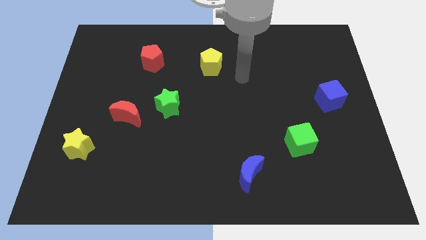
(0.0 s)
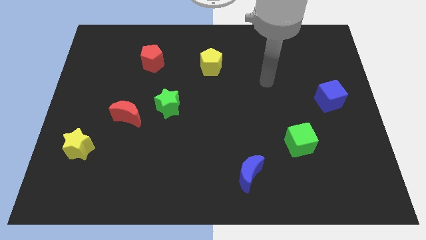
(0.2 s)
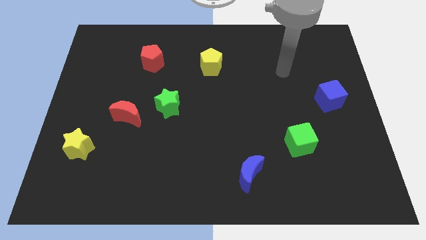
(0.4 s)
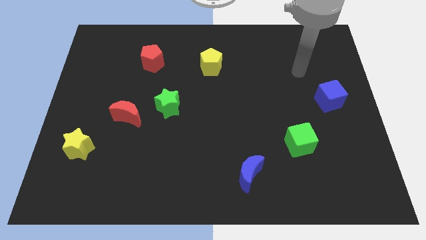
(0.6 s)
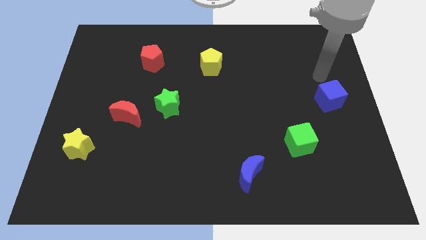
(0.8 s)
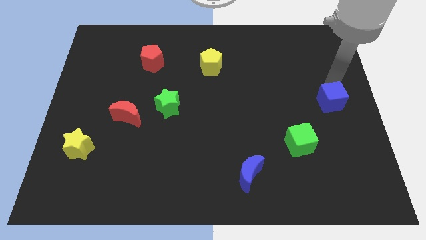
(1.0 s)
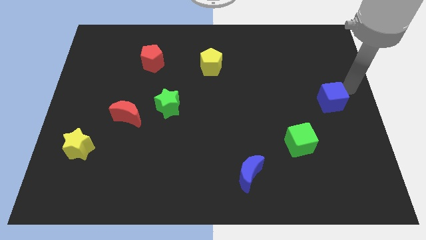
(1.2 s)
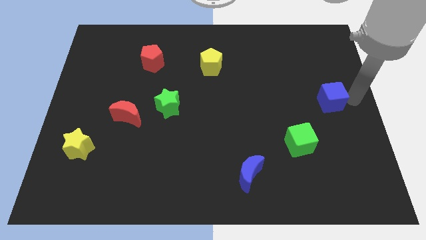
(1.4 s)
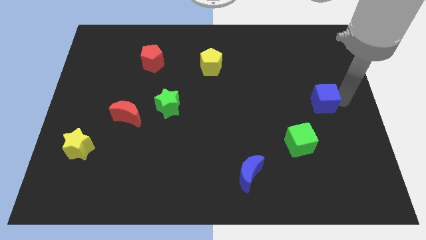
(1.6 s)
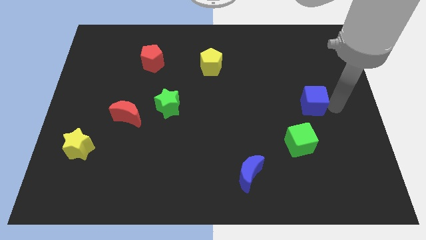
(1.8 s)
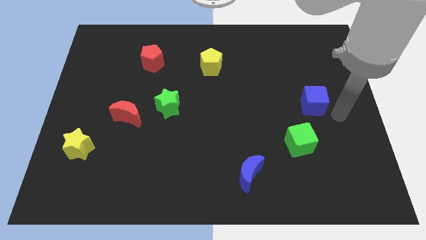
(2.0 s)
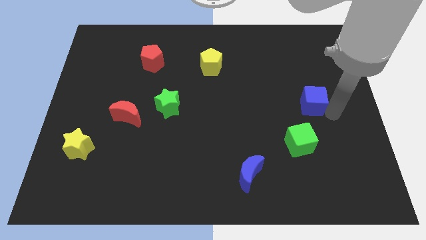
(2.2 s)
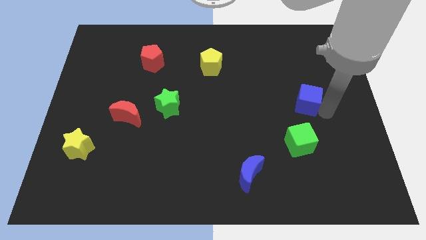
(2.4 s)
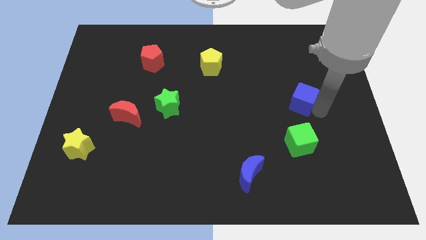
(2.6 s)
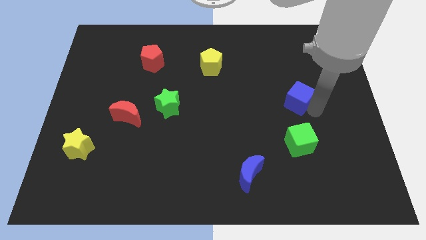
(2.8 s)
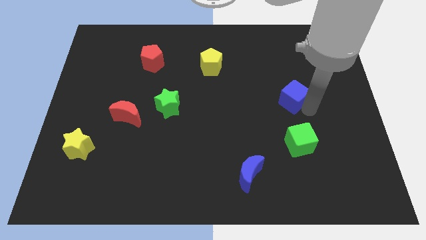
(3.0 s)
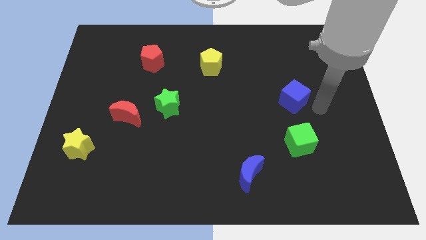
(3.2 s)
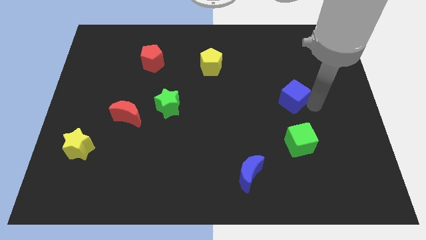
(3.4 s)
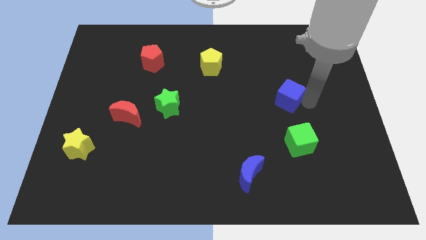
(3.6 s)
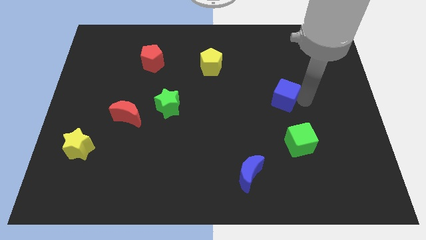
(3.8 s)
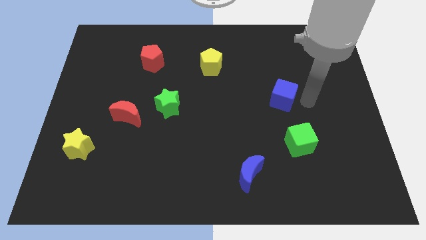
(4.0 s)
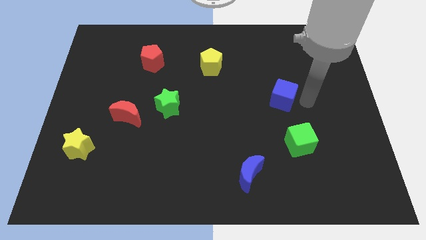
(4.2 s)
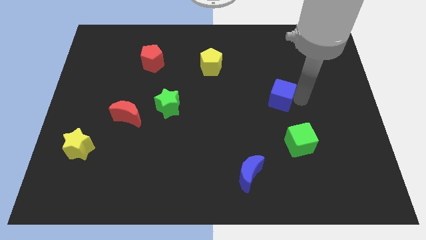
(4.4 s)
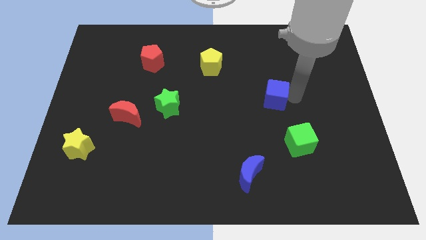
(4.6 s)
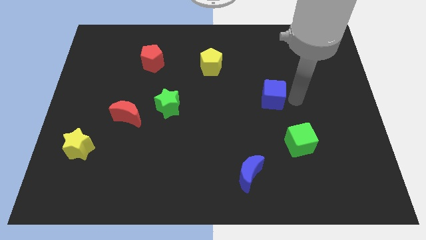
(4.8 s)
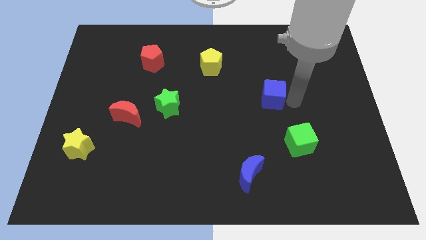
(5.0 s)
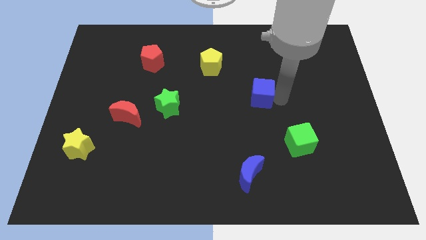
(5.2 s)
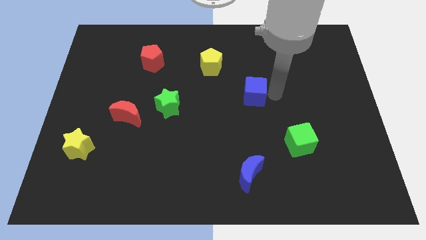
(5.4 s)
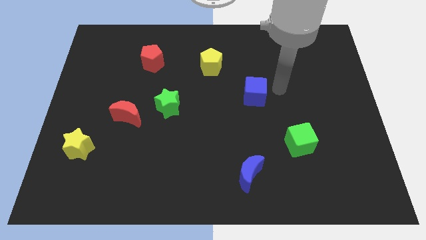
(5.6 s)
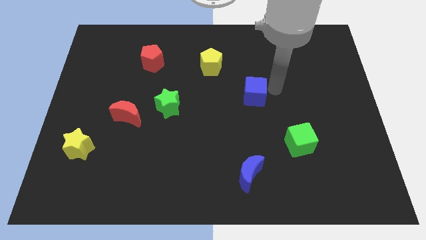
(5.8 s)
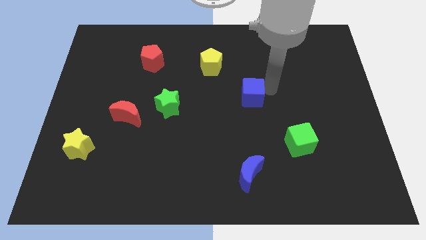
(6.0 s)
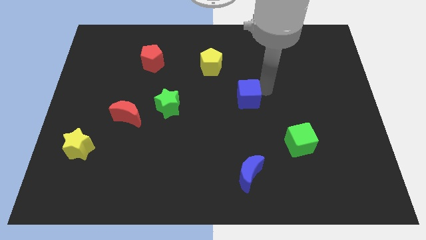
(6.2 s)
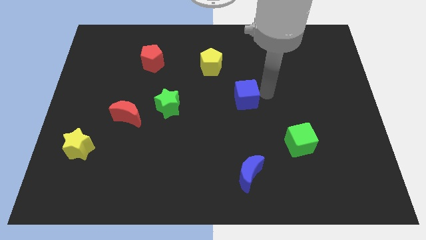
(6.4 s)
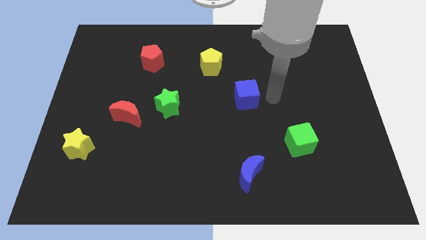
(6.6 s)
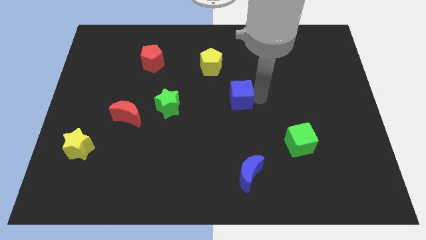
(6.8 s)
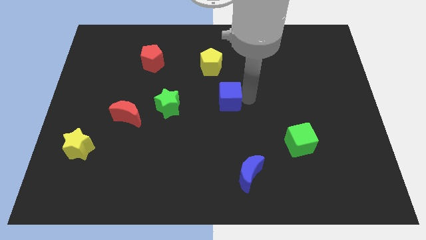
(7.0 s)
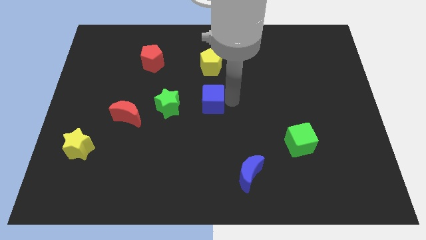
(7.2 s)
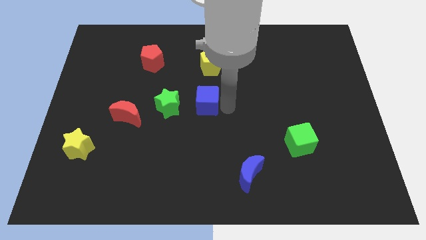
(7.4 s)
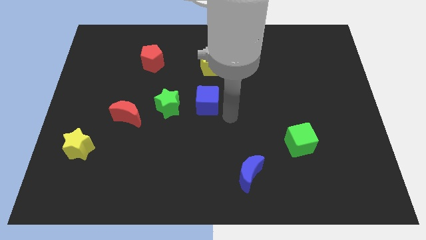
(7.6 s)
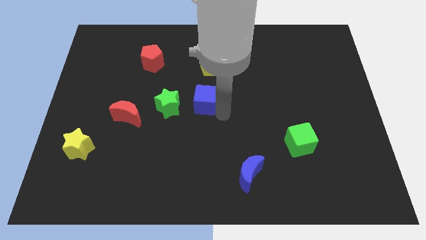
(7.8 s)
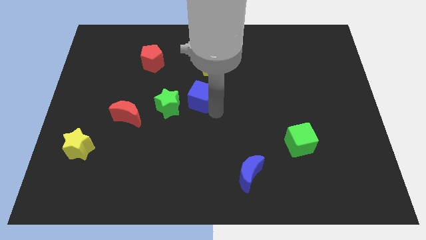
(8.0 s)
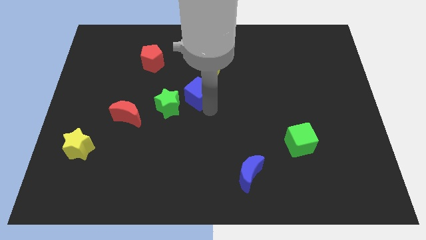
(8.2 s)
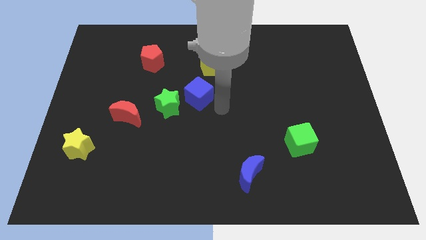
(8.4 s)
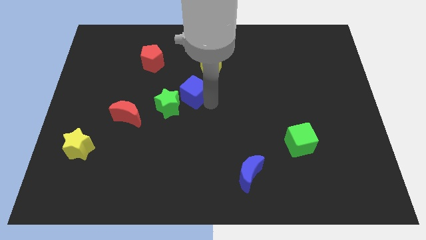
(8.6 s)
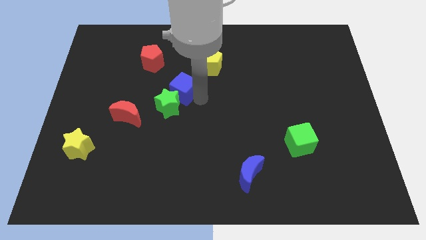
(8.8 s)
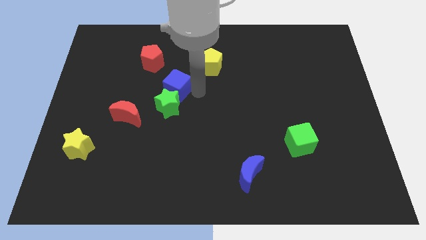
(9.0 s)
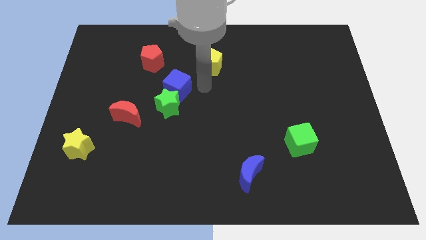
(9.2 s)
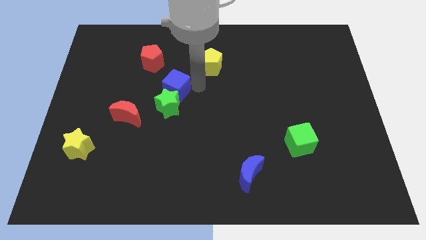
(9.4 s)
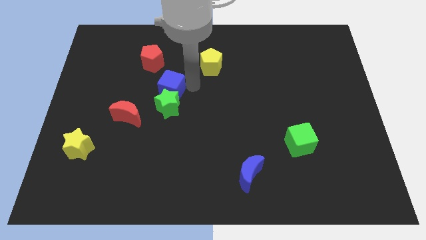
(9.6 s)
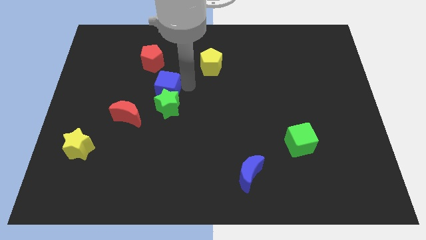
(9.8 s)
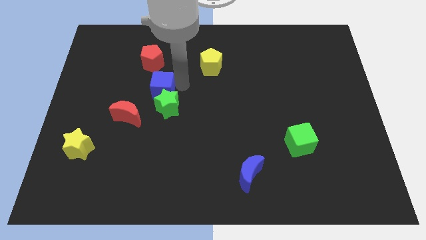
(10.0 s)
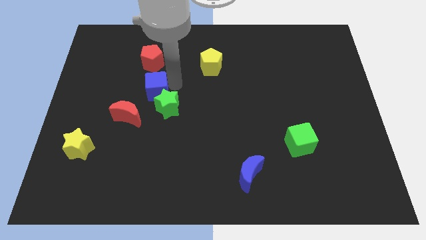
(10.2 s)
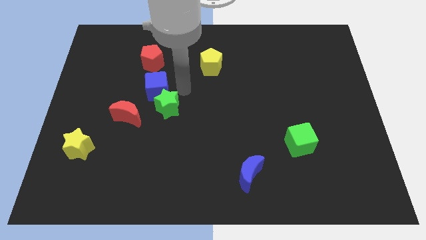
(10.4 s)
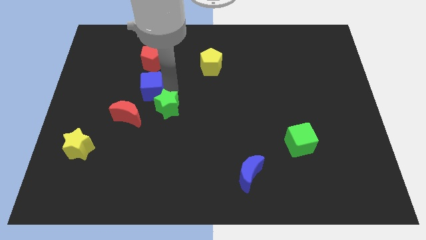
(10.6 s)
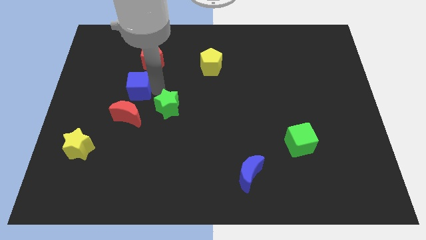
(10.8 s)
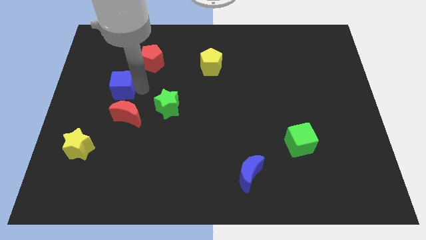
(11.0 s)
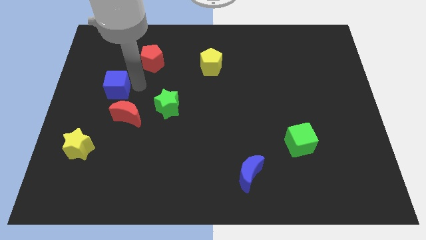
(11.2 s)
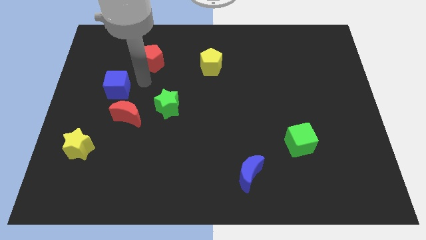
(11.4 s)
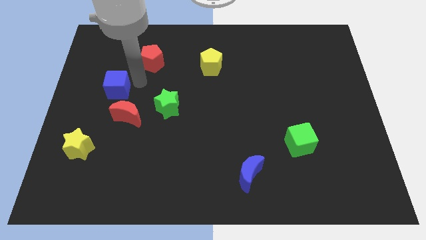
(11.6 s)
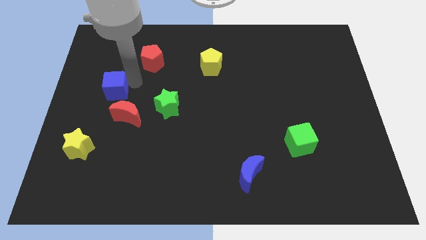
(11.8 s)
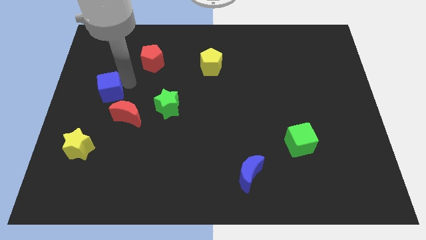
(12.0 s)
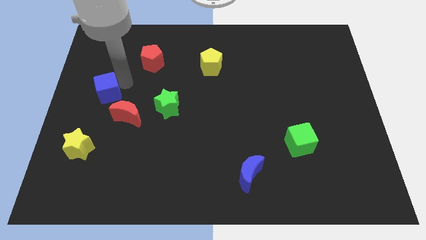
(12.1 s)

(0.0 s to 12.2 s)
put the blue cube to the center left

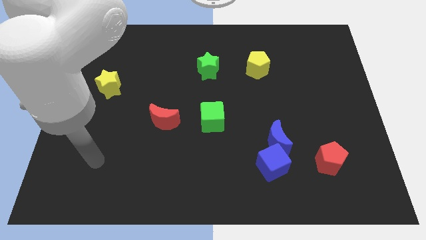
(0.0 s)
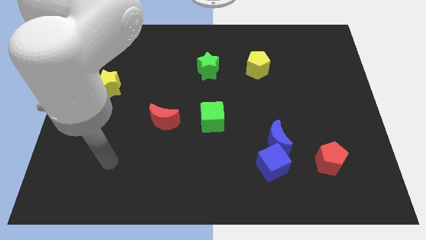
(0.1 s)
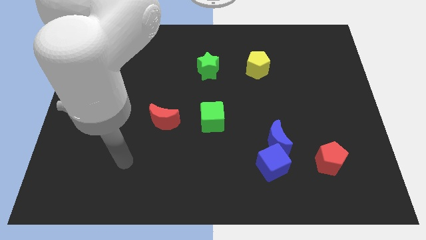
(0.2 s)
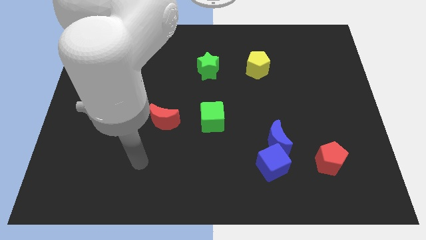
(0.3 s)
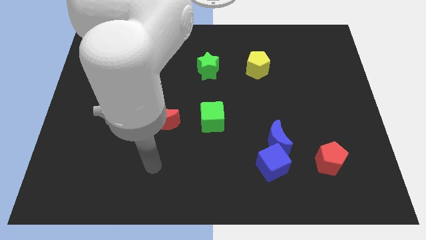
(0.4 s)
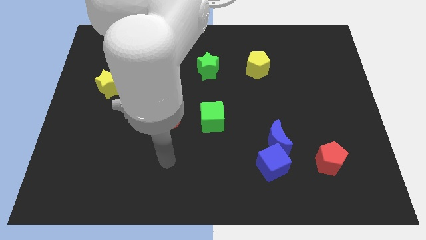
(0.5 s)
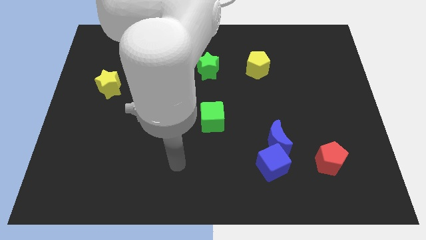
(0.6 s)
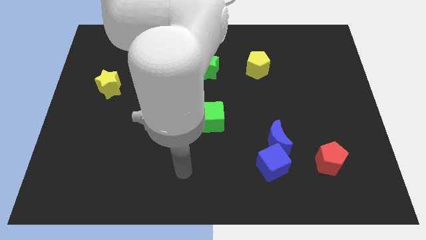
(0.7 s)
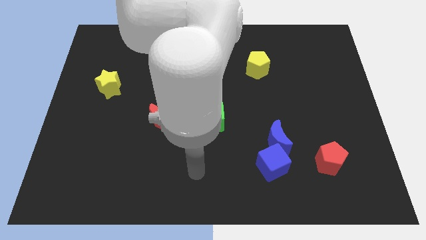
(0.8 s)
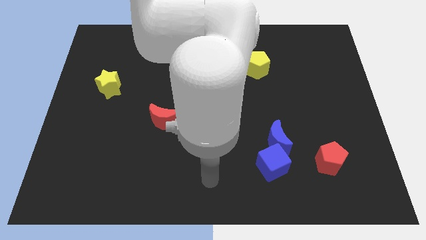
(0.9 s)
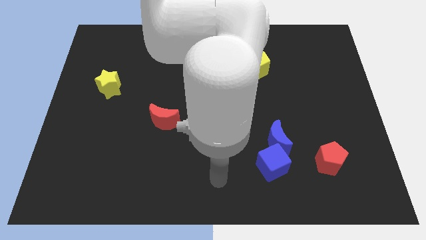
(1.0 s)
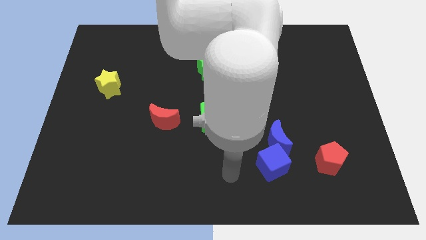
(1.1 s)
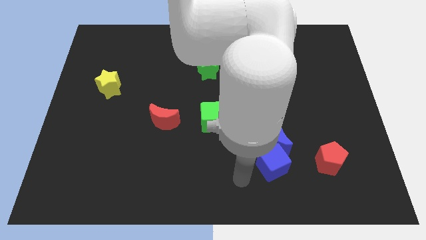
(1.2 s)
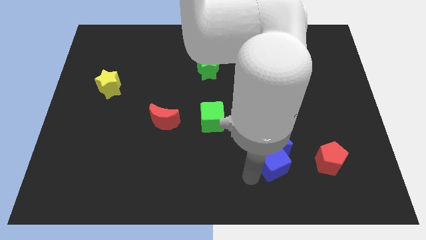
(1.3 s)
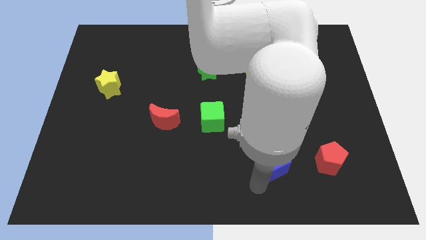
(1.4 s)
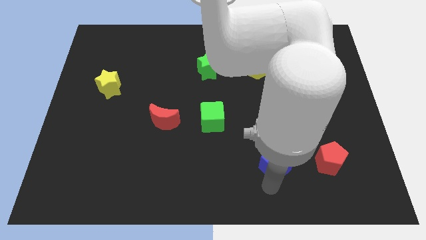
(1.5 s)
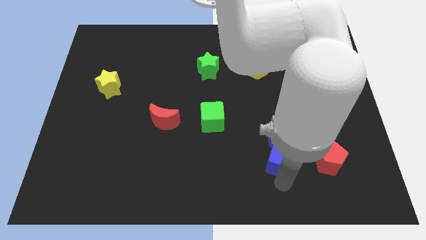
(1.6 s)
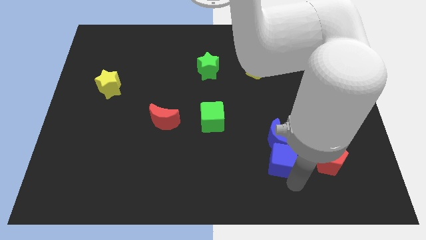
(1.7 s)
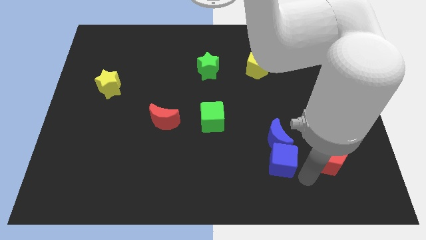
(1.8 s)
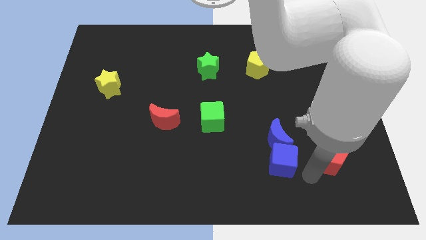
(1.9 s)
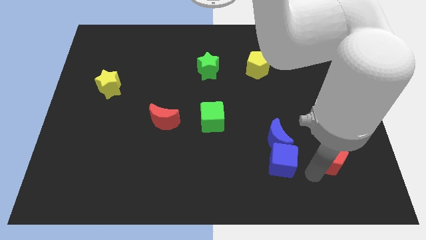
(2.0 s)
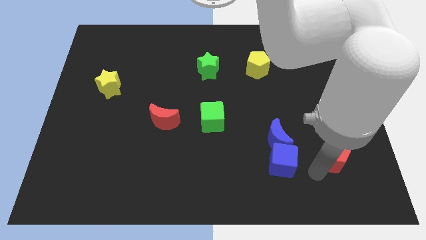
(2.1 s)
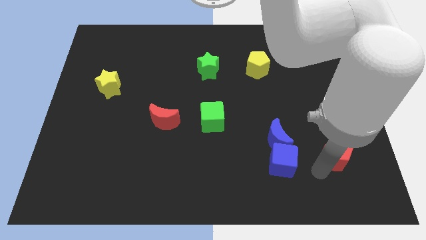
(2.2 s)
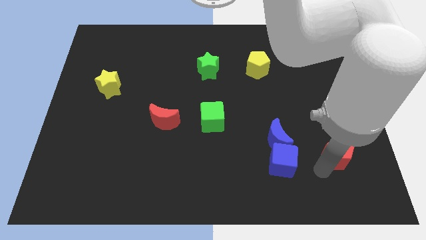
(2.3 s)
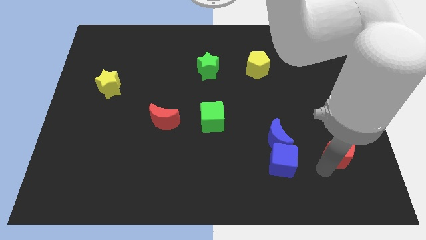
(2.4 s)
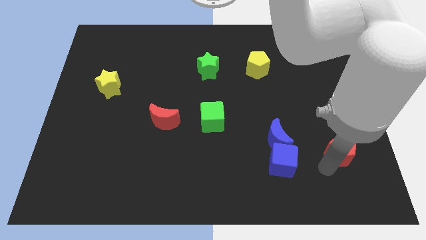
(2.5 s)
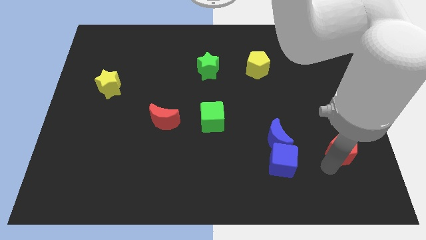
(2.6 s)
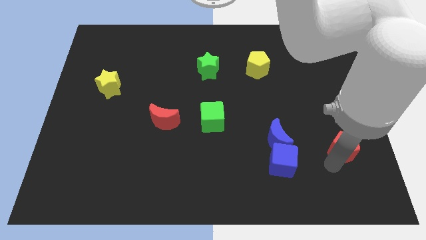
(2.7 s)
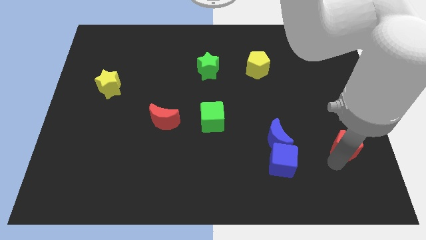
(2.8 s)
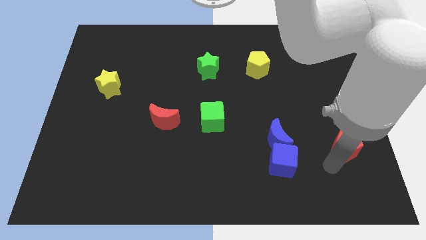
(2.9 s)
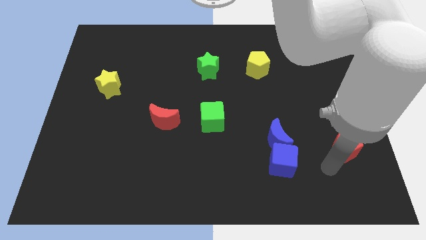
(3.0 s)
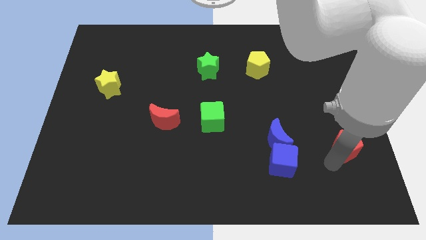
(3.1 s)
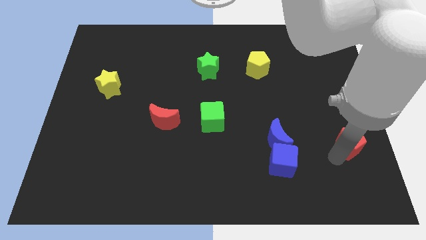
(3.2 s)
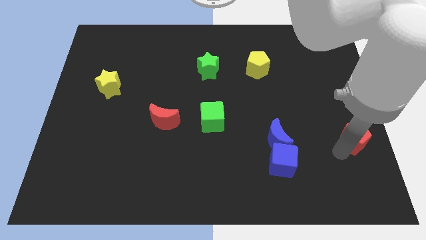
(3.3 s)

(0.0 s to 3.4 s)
push the red pentagon to the right side
